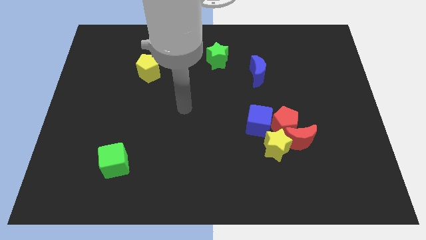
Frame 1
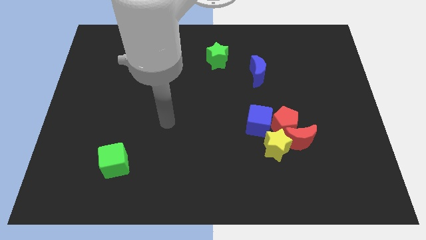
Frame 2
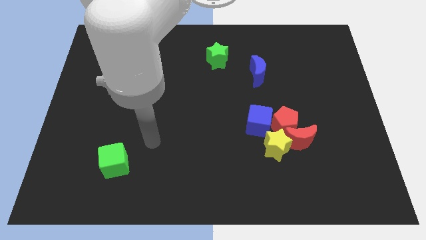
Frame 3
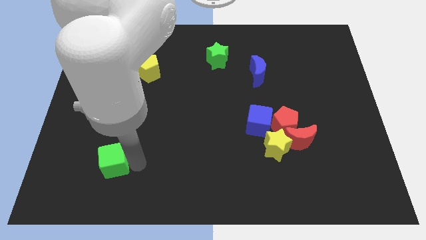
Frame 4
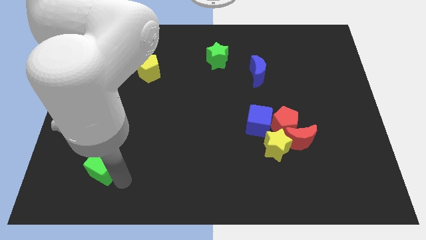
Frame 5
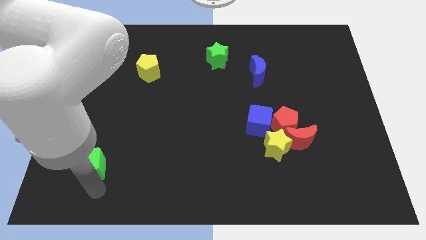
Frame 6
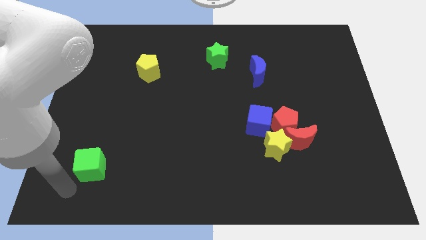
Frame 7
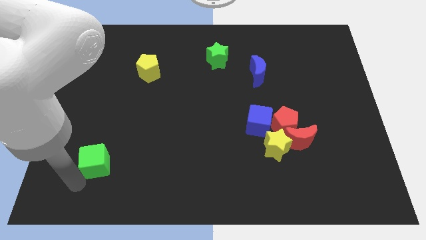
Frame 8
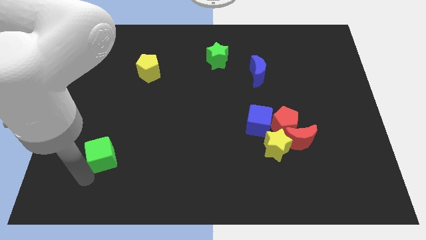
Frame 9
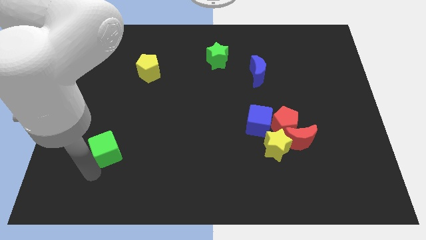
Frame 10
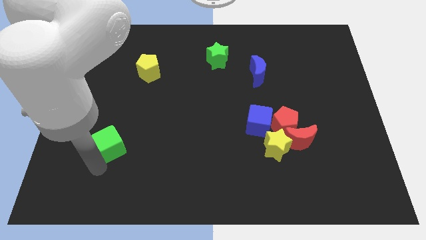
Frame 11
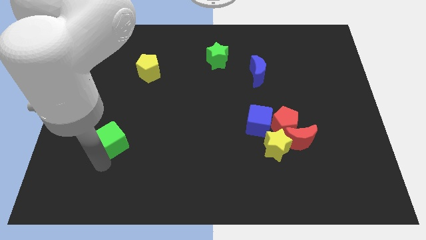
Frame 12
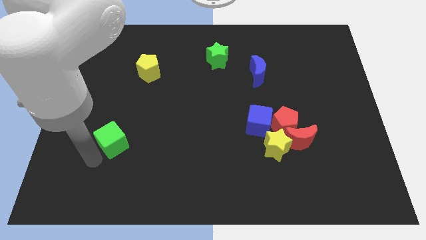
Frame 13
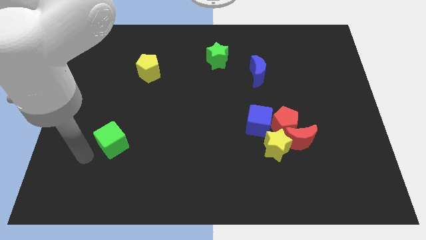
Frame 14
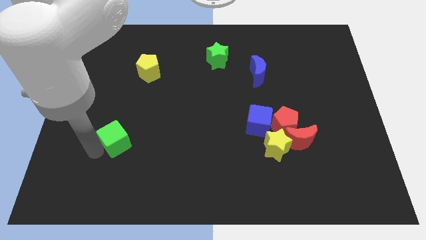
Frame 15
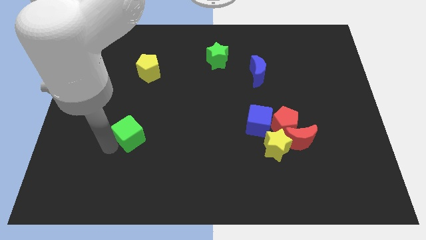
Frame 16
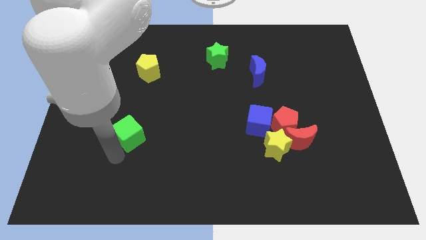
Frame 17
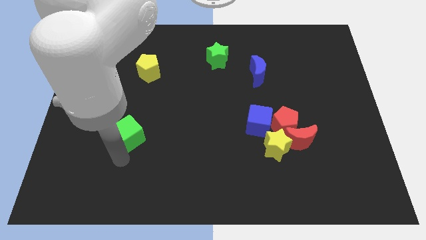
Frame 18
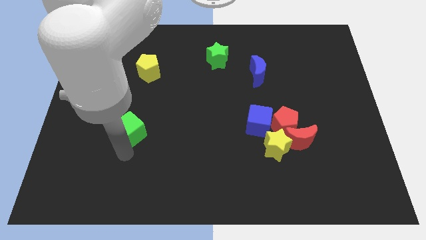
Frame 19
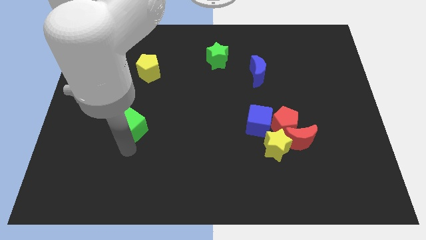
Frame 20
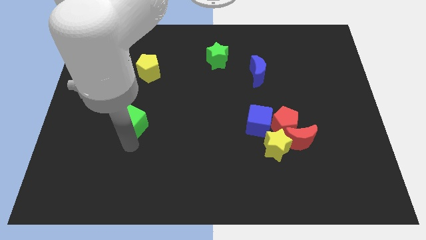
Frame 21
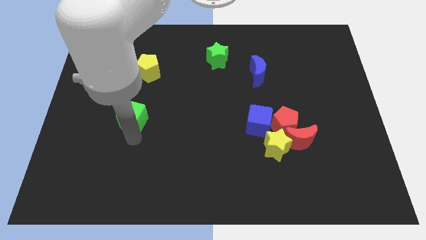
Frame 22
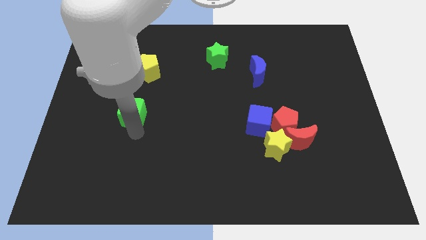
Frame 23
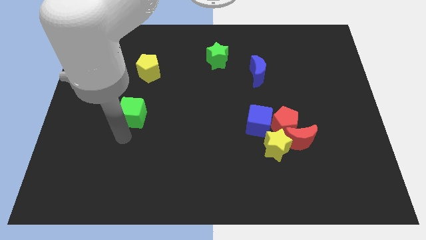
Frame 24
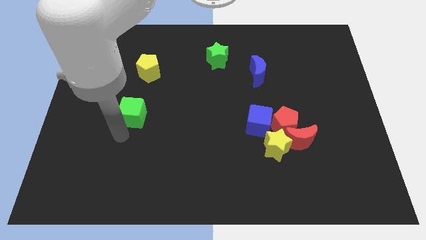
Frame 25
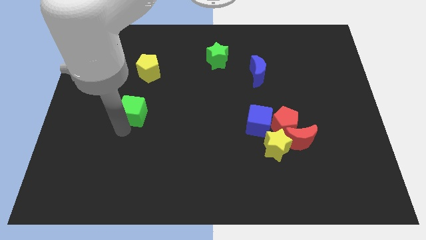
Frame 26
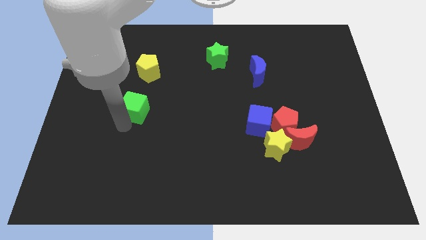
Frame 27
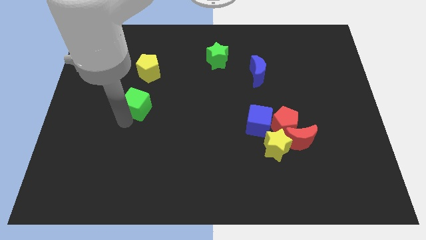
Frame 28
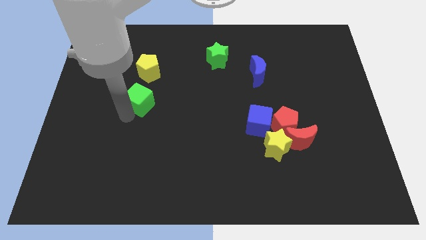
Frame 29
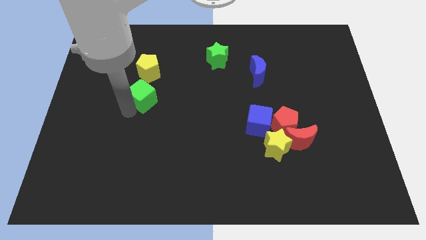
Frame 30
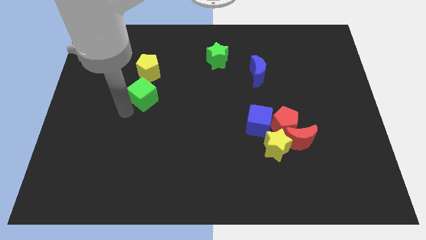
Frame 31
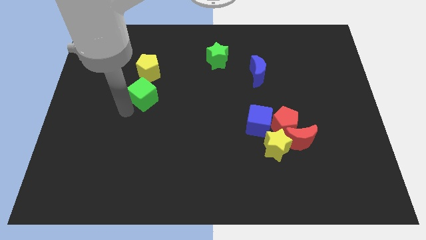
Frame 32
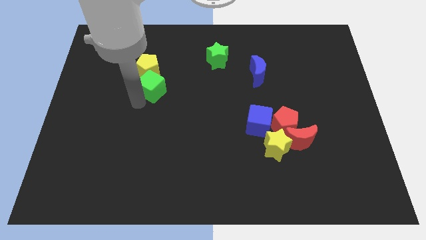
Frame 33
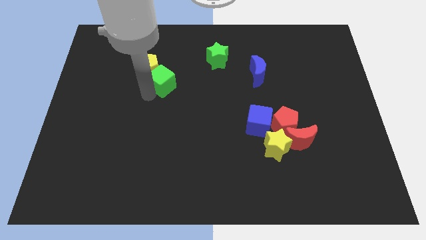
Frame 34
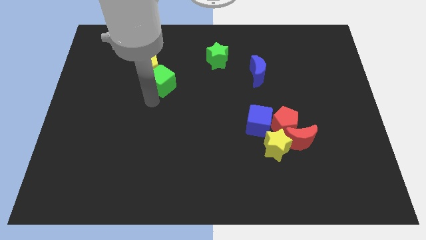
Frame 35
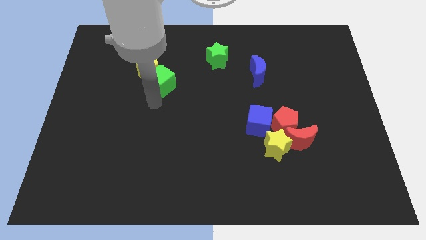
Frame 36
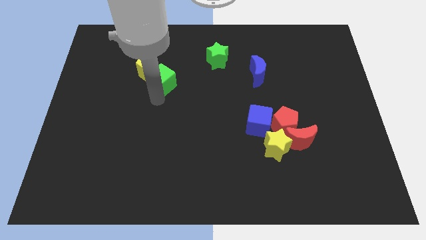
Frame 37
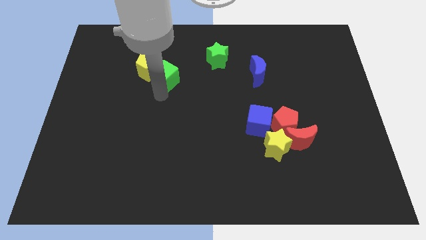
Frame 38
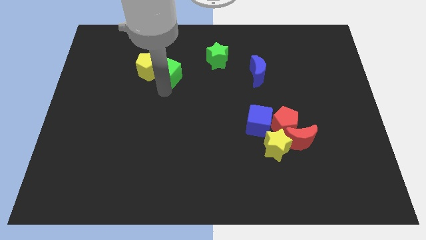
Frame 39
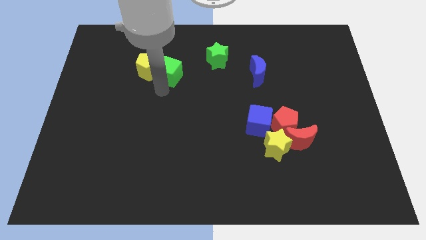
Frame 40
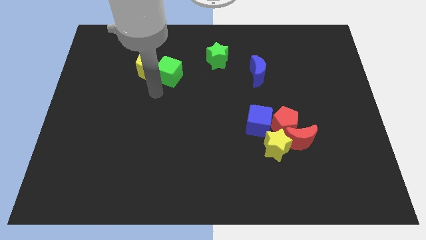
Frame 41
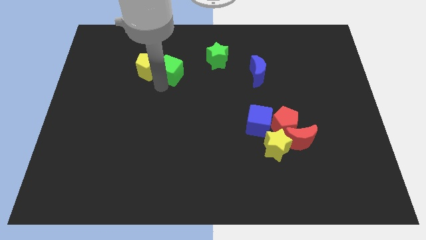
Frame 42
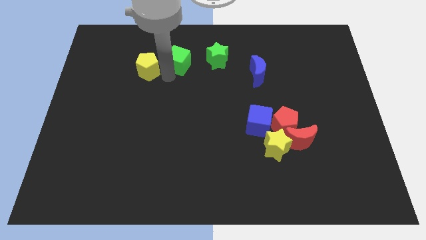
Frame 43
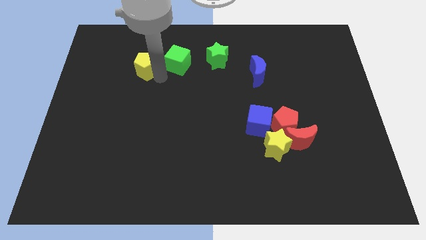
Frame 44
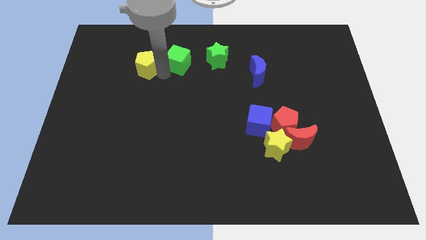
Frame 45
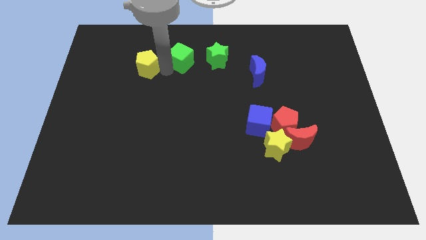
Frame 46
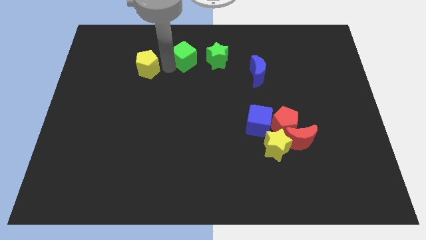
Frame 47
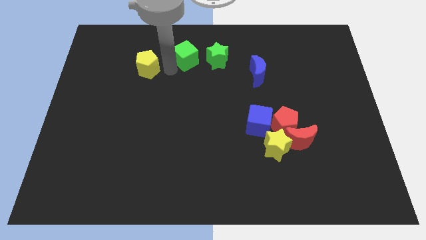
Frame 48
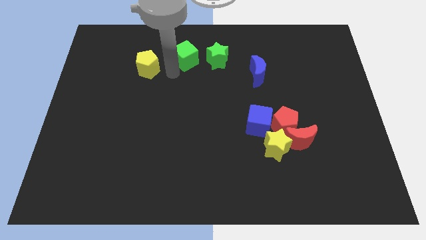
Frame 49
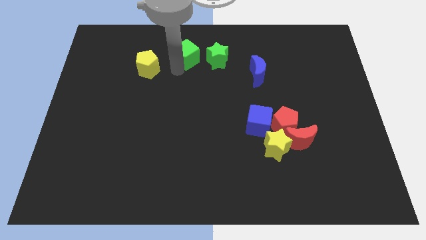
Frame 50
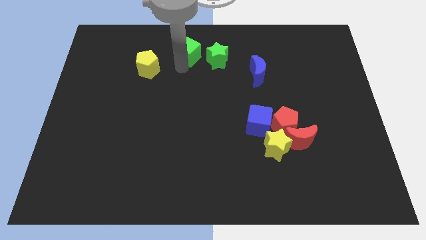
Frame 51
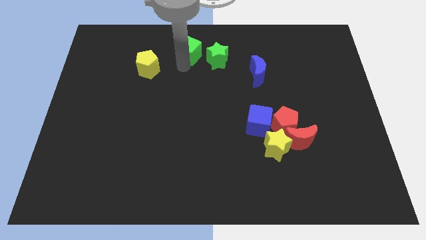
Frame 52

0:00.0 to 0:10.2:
slide the green cube to the top side

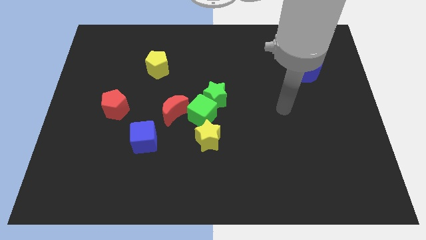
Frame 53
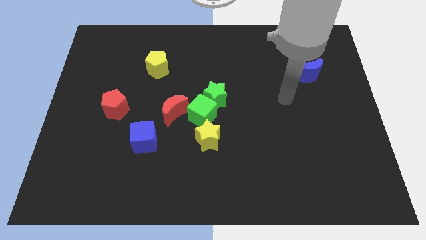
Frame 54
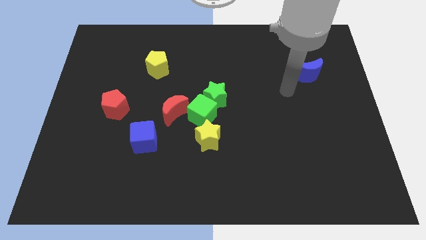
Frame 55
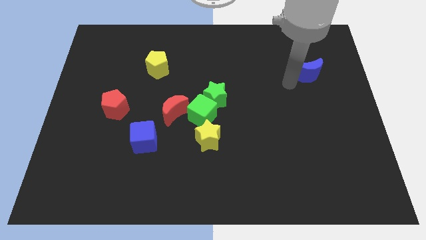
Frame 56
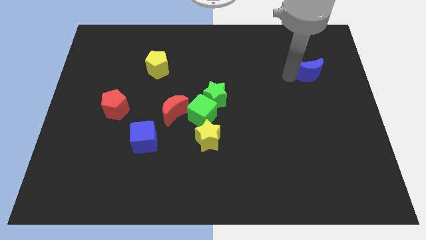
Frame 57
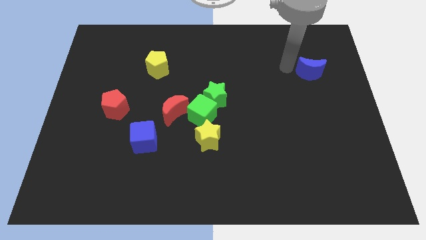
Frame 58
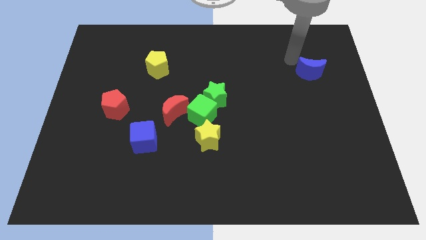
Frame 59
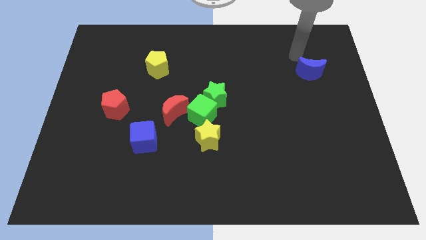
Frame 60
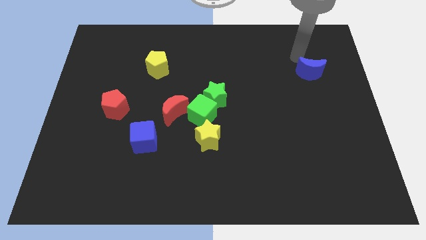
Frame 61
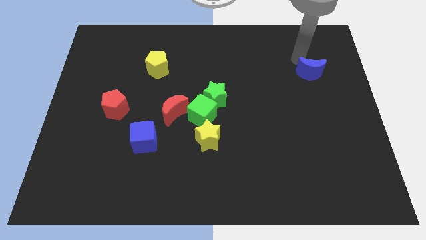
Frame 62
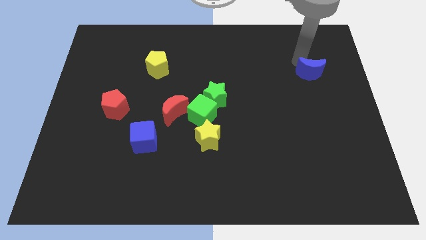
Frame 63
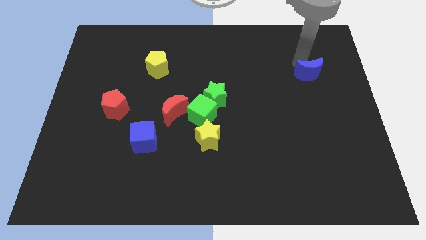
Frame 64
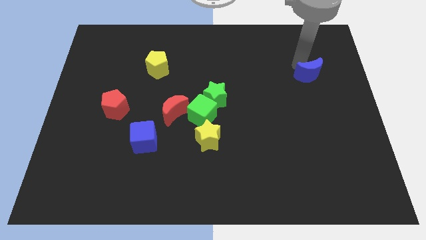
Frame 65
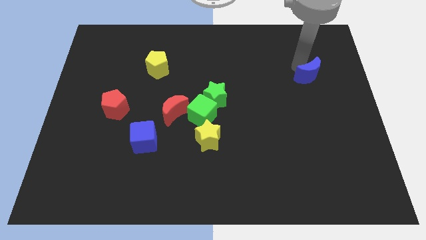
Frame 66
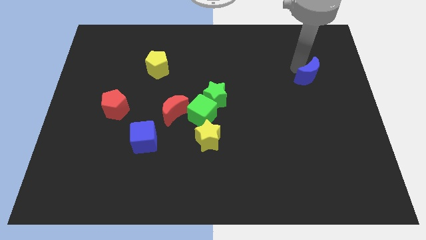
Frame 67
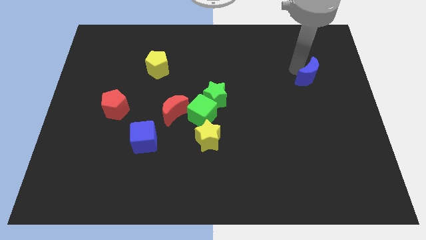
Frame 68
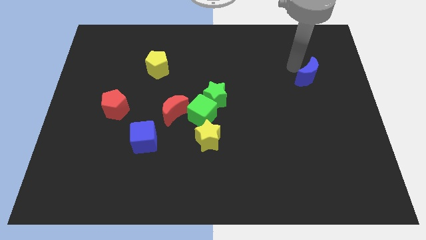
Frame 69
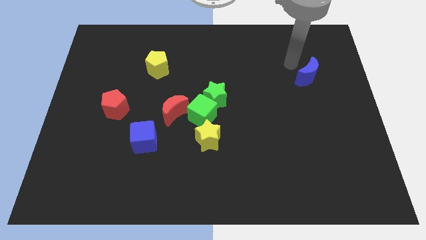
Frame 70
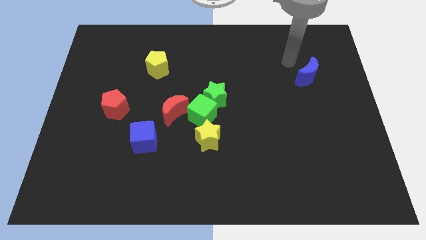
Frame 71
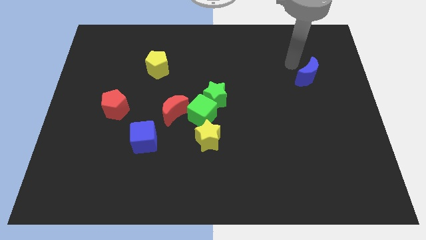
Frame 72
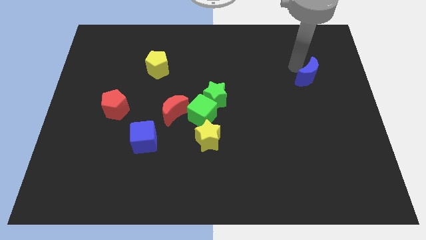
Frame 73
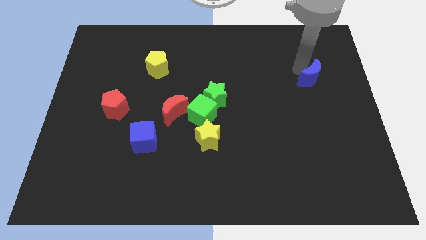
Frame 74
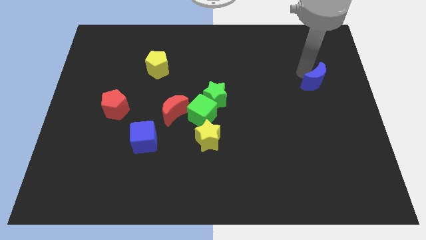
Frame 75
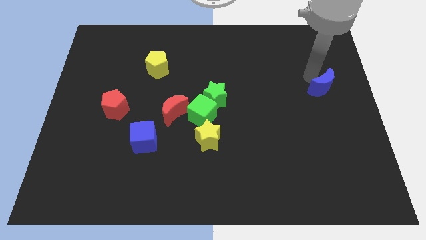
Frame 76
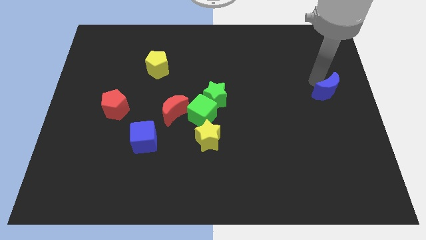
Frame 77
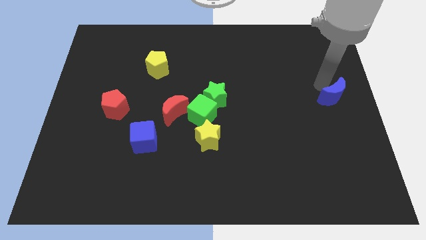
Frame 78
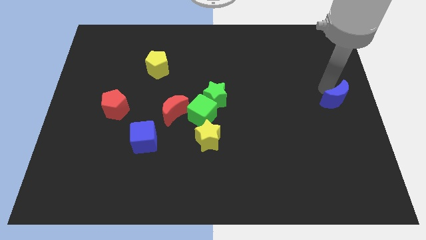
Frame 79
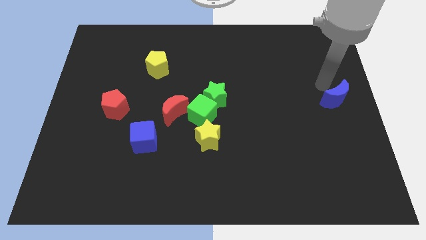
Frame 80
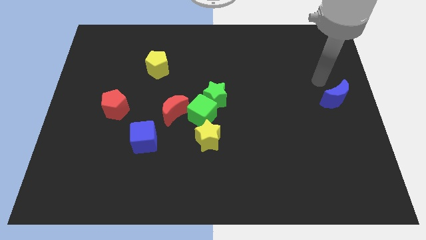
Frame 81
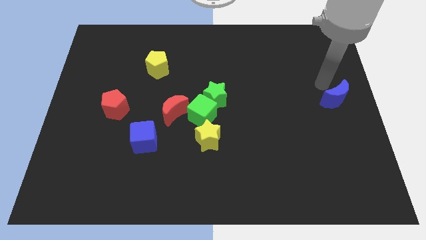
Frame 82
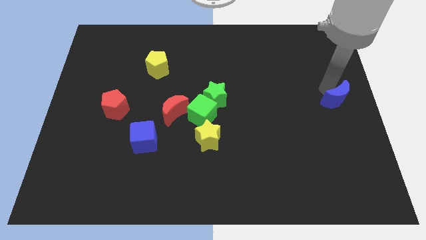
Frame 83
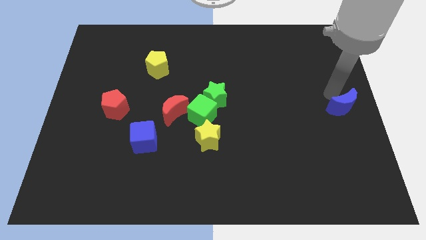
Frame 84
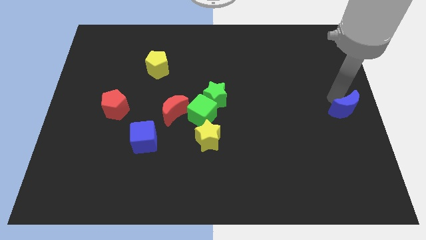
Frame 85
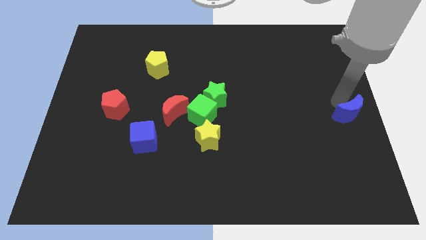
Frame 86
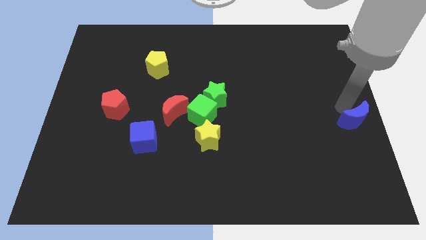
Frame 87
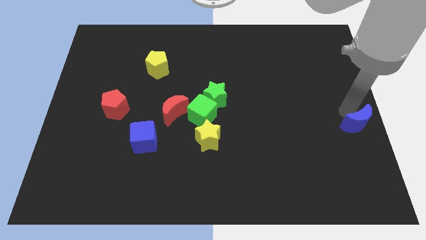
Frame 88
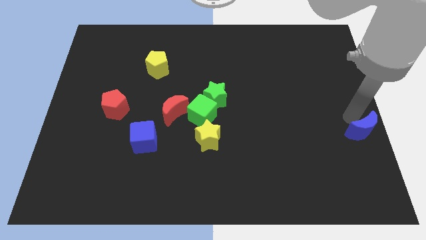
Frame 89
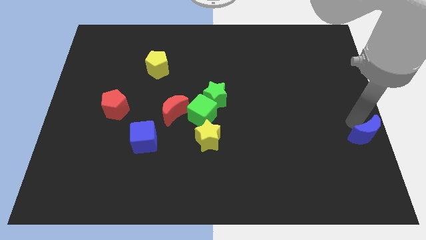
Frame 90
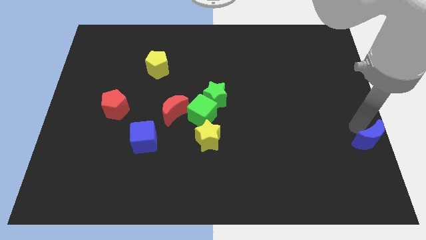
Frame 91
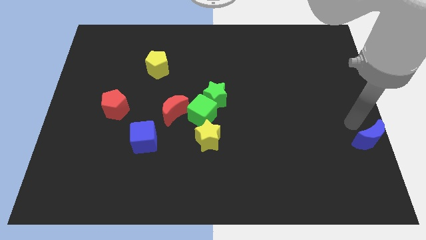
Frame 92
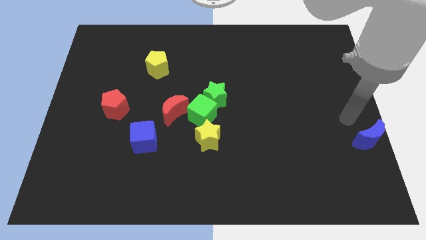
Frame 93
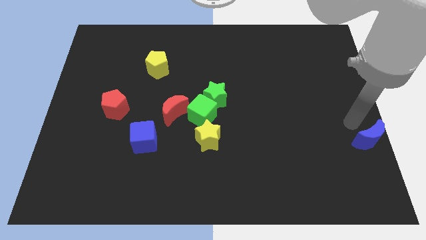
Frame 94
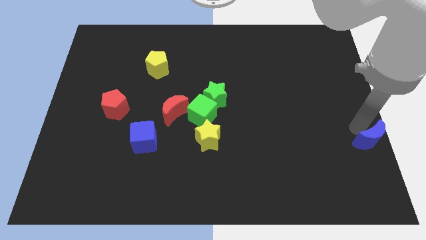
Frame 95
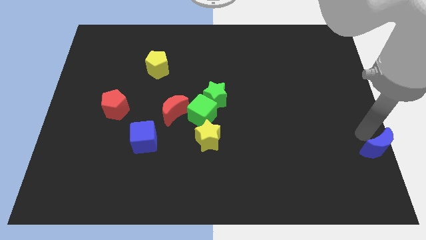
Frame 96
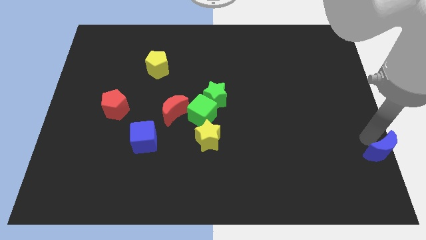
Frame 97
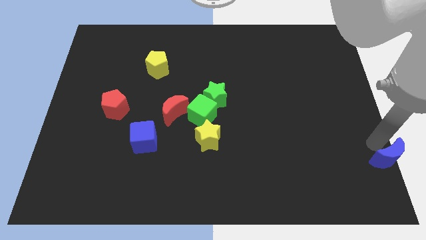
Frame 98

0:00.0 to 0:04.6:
push the blue moon to the bottom right of the board
